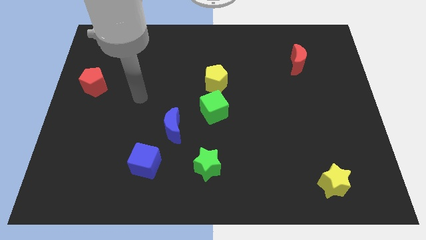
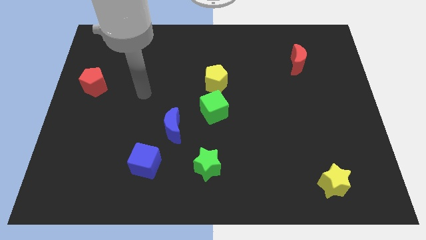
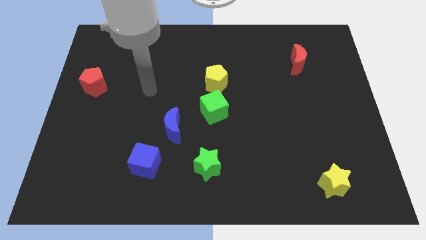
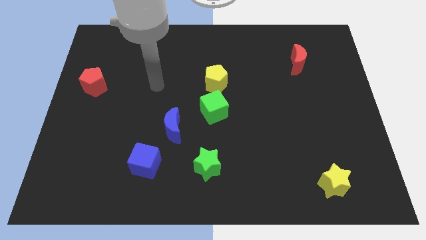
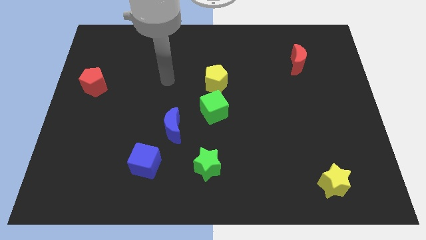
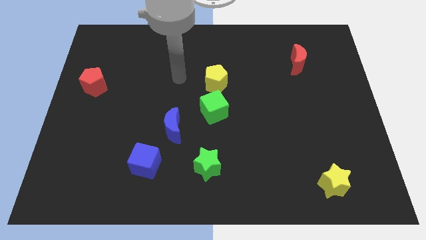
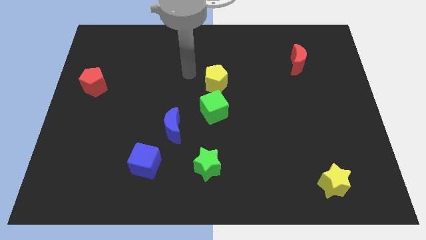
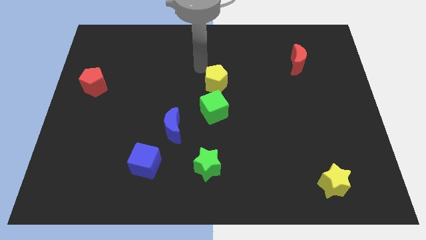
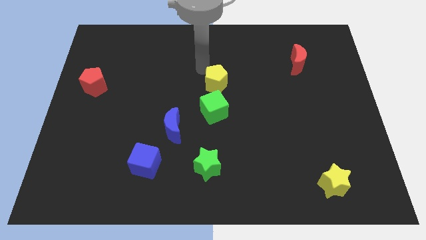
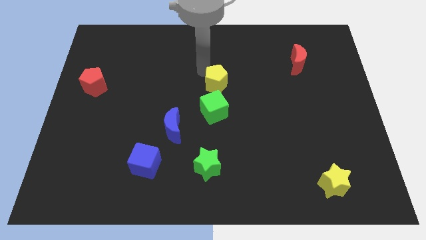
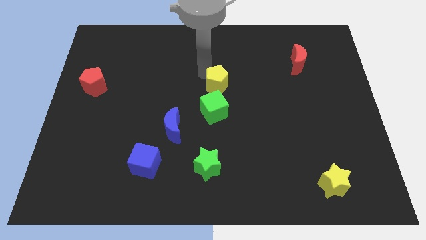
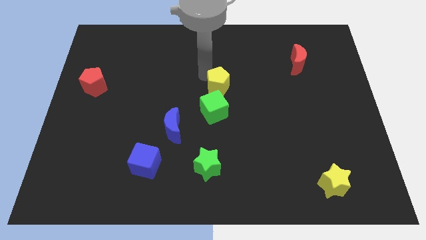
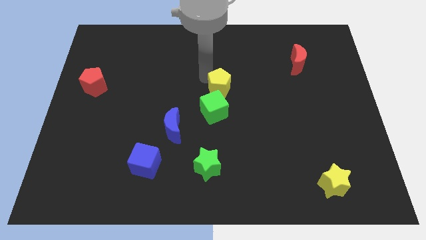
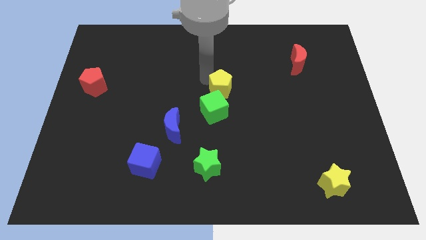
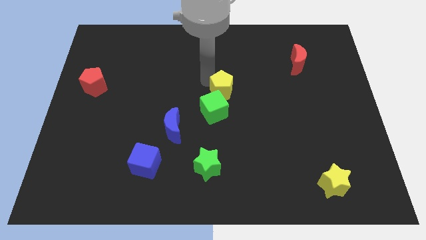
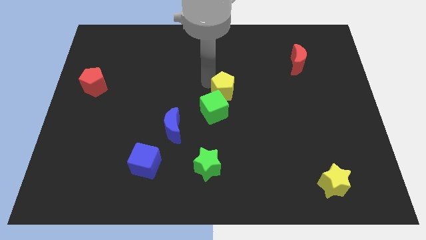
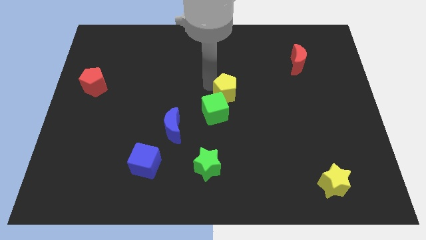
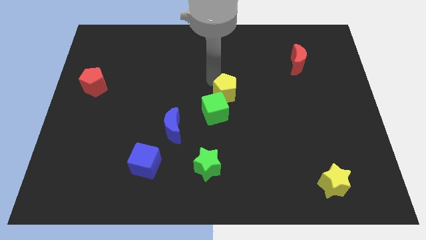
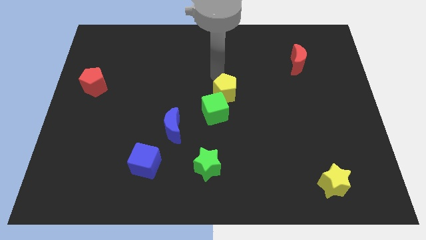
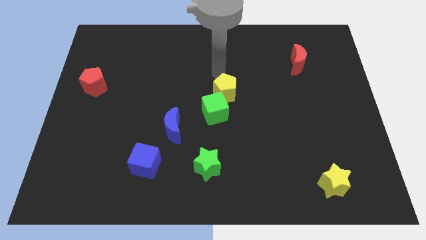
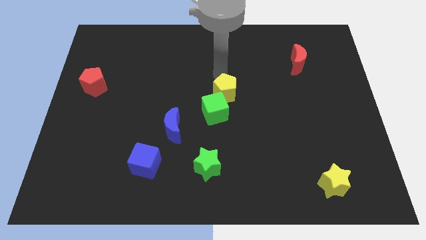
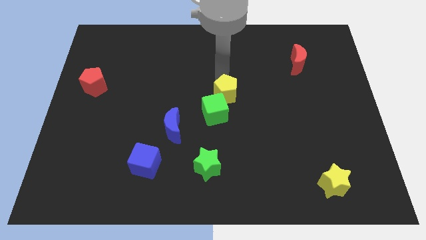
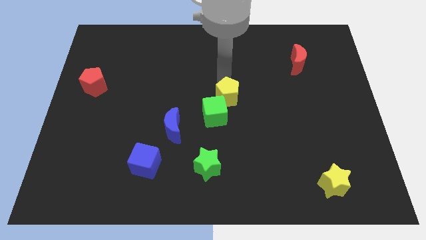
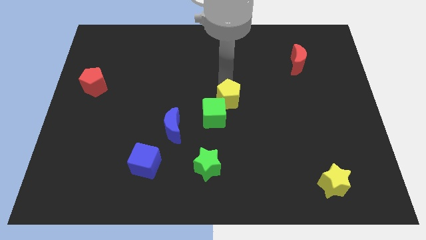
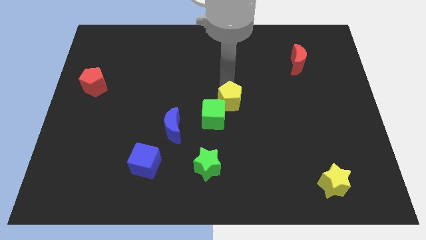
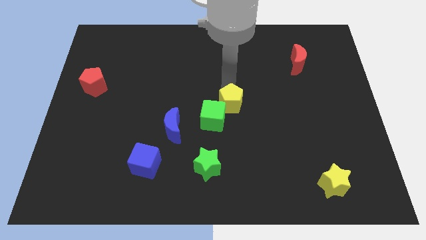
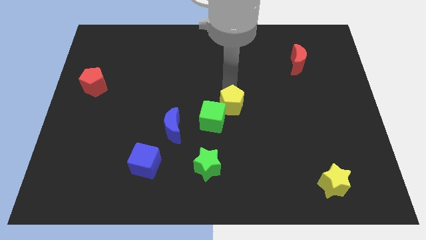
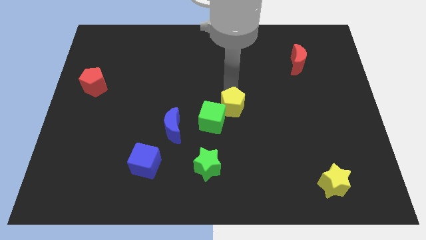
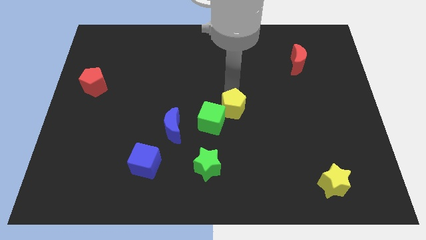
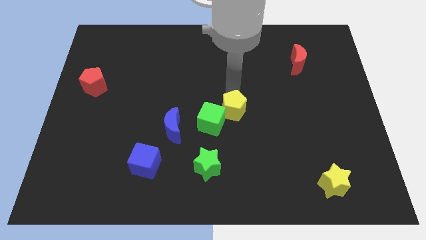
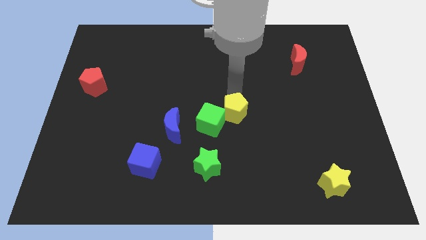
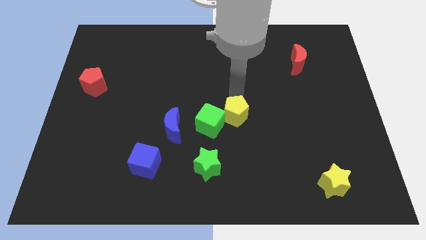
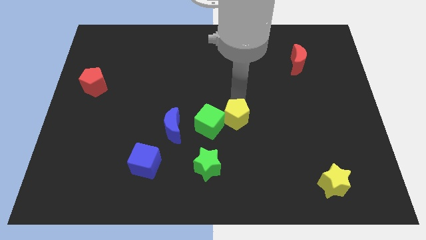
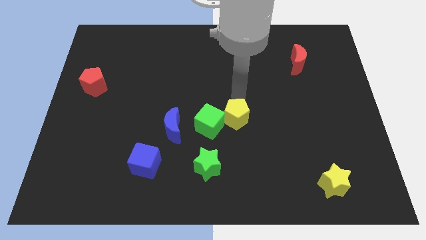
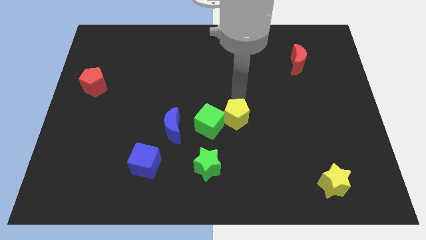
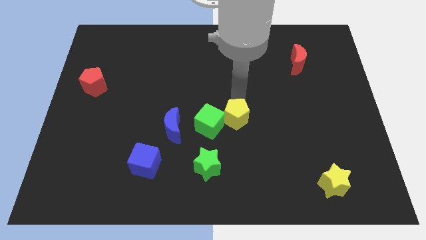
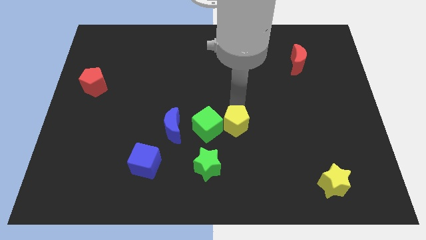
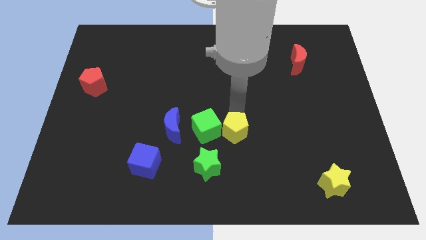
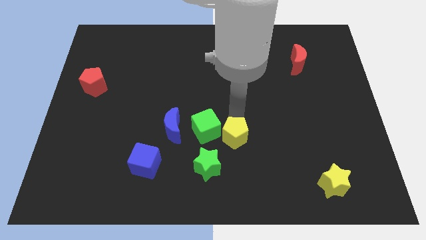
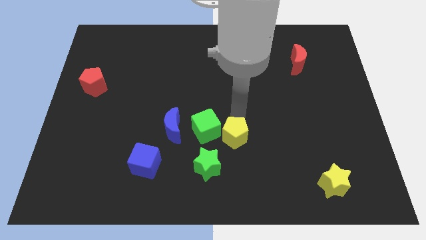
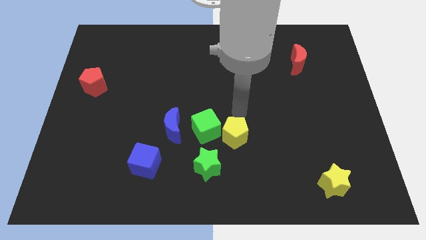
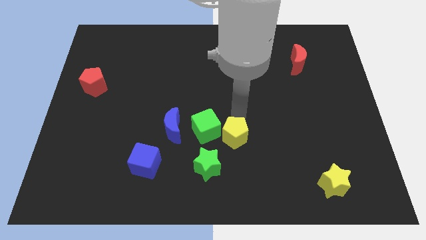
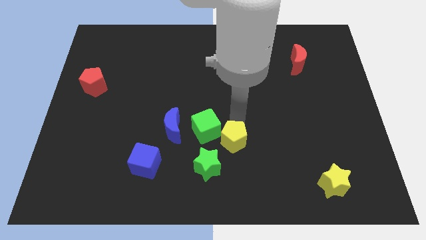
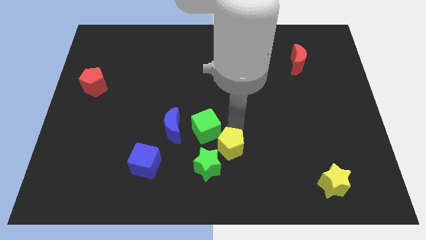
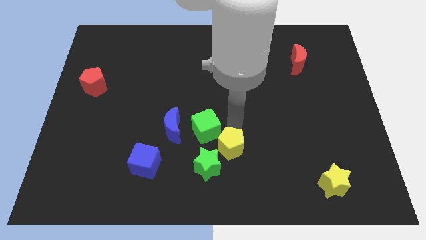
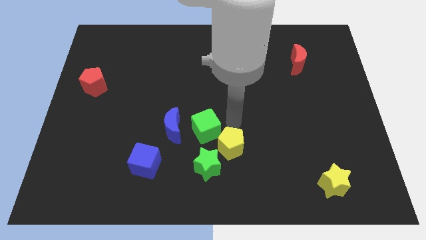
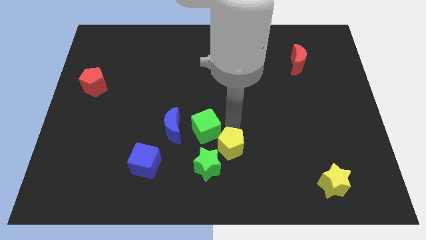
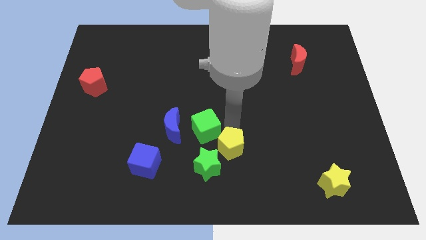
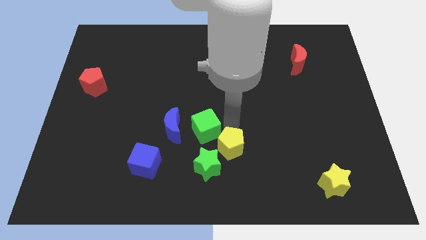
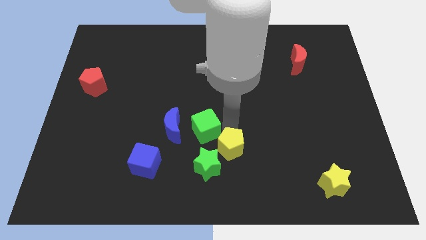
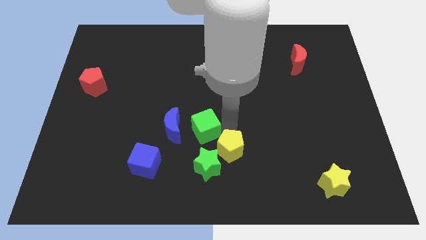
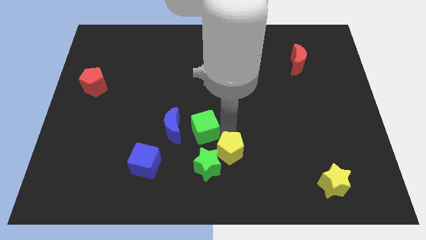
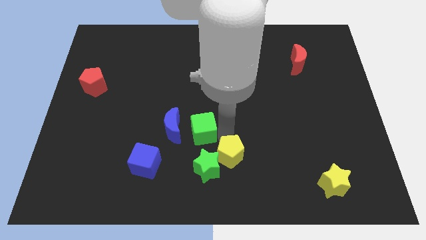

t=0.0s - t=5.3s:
slide the yellow pentagon to the bottom side

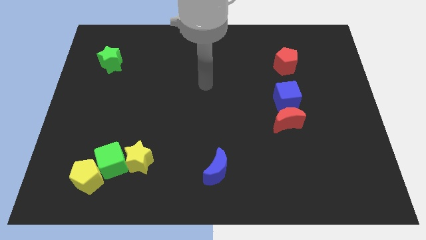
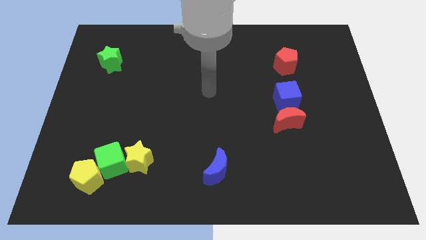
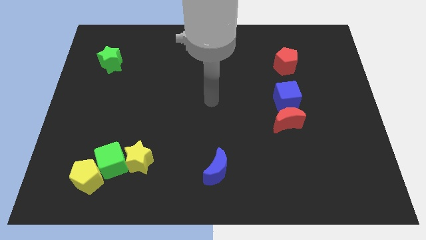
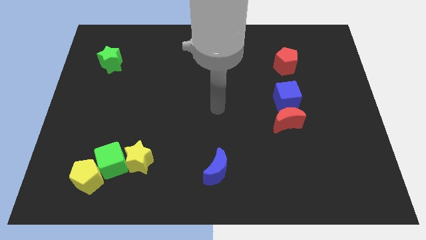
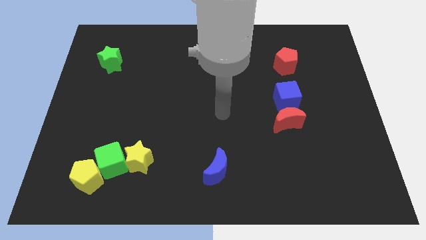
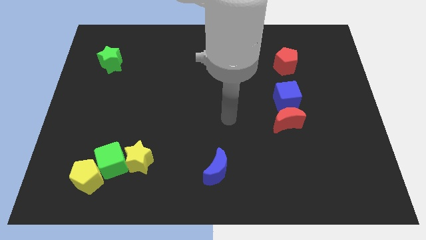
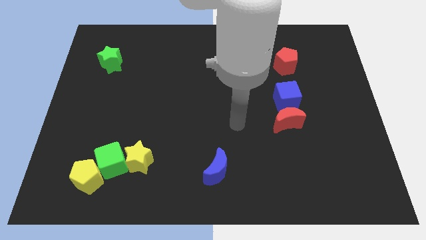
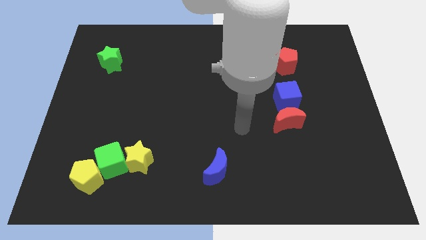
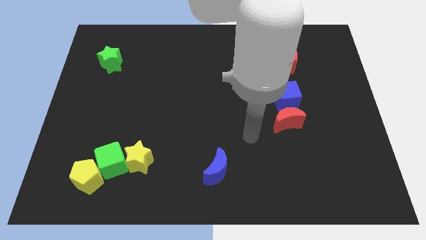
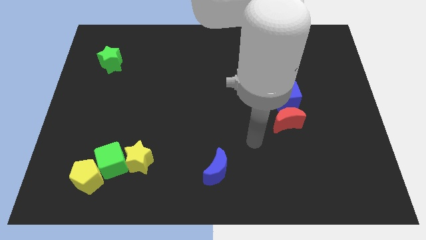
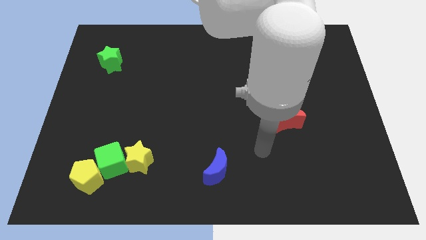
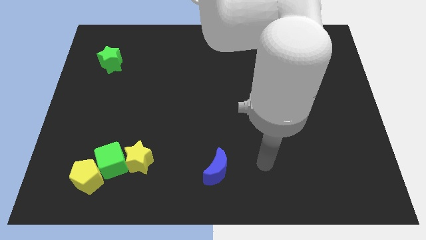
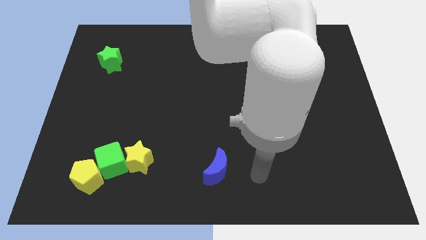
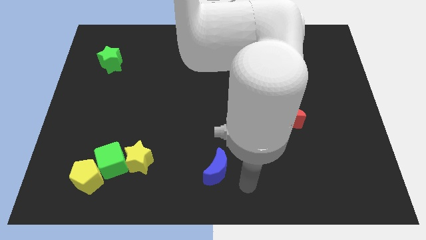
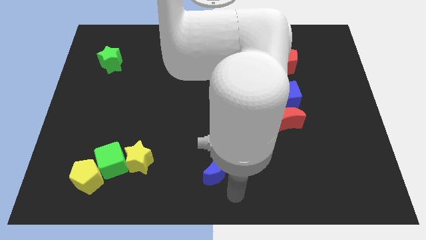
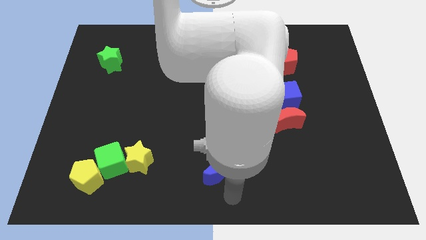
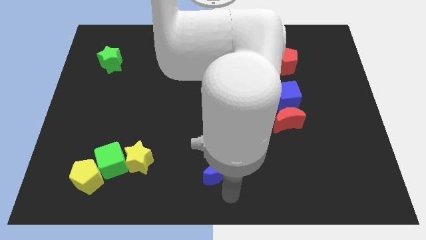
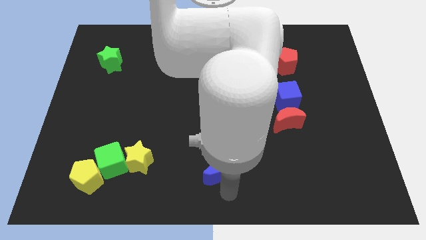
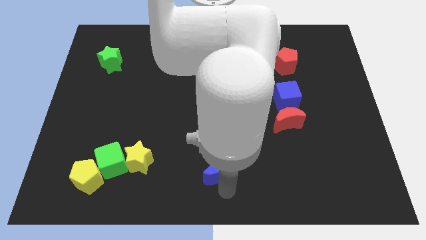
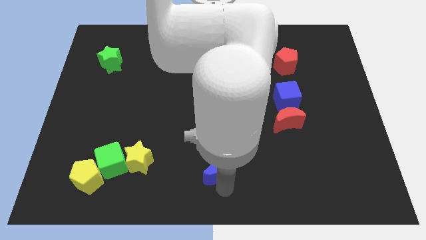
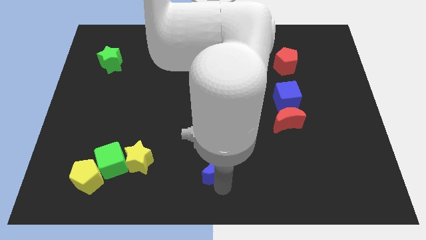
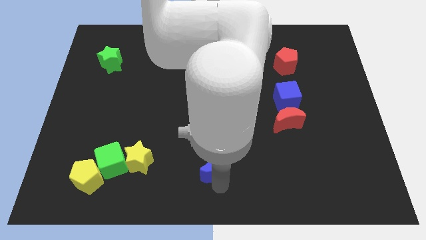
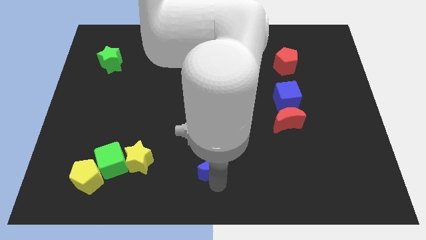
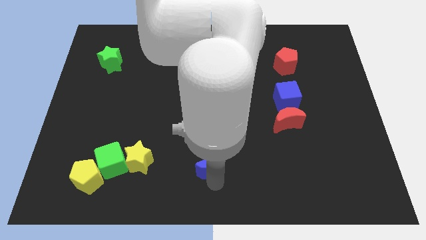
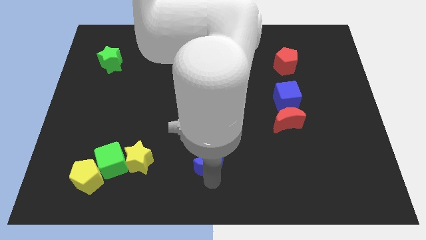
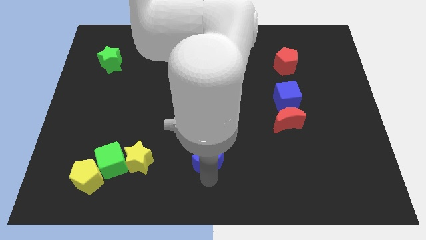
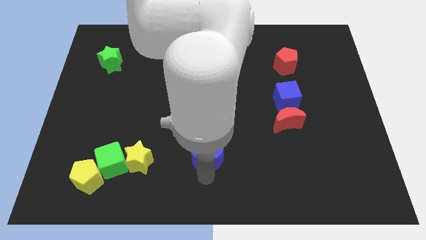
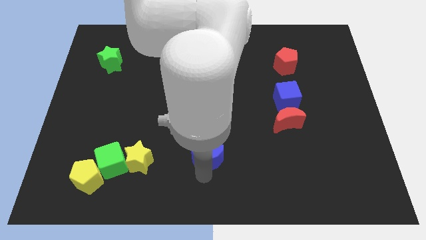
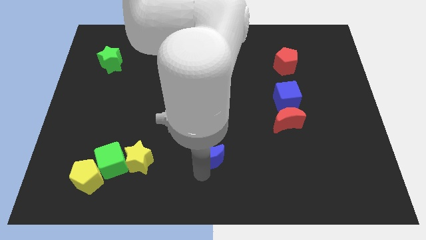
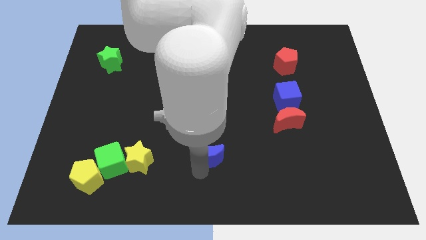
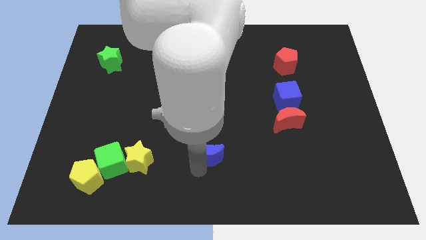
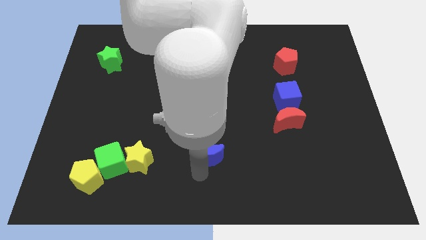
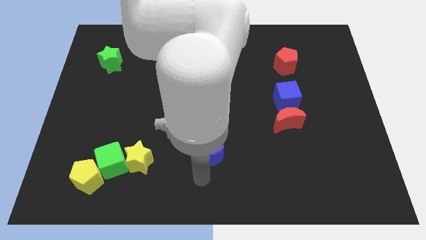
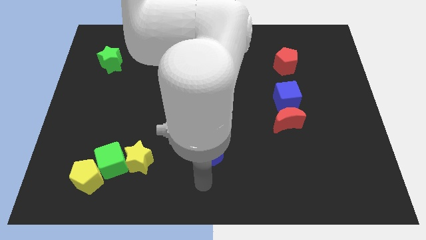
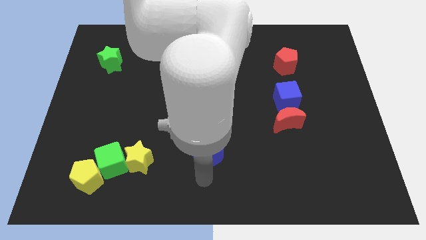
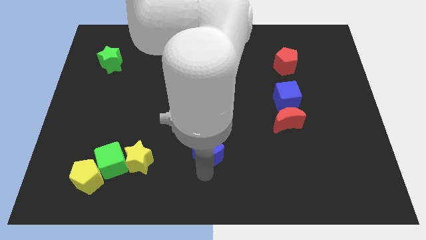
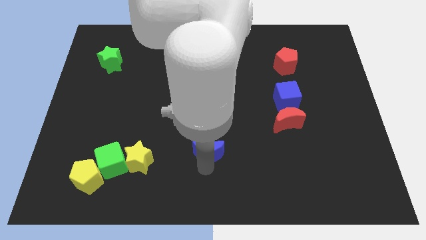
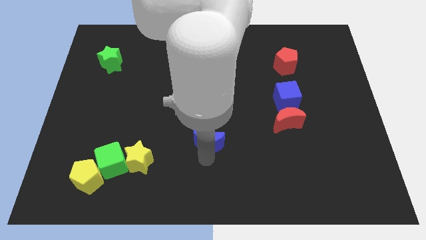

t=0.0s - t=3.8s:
put the blue moon to the center of the board
